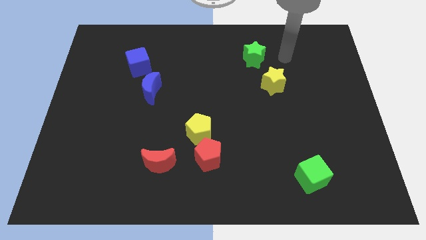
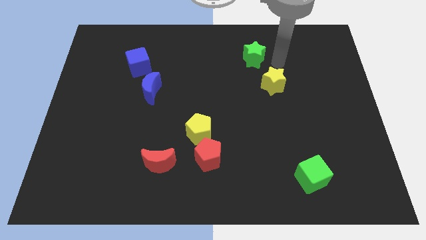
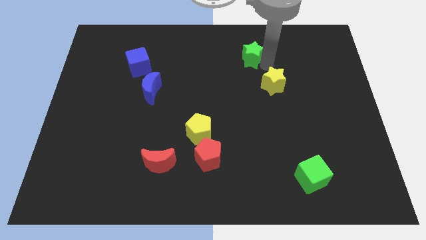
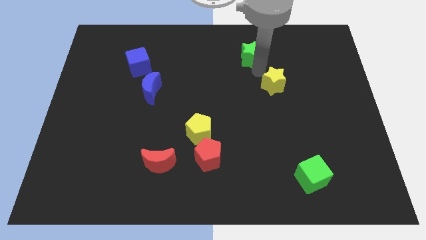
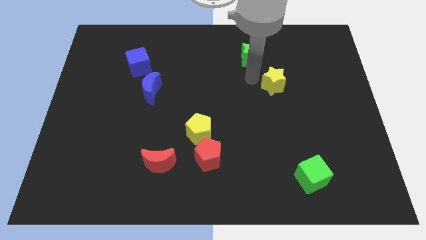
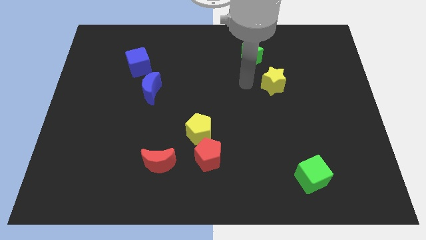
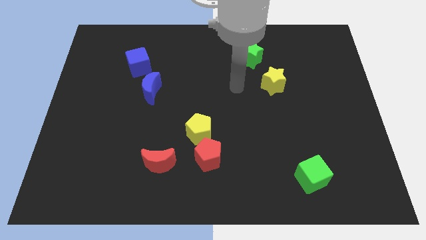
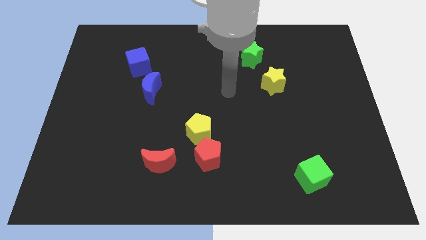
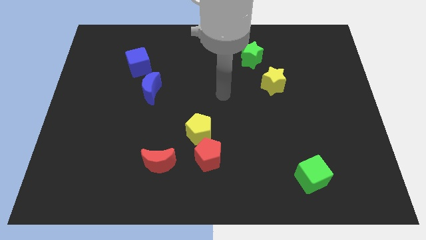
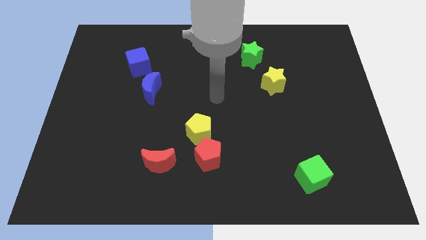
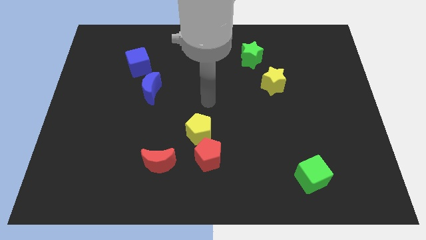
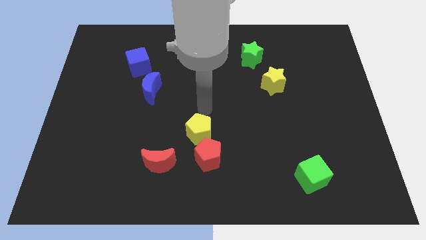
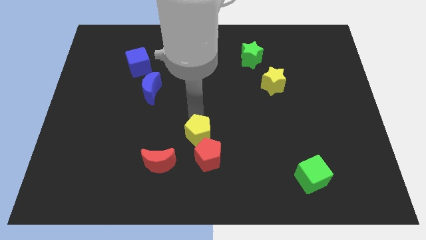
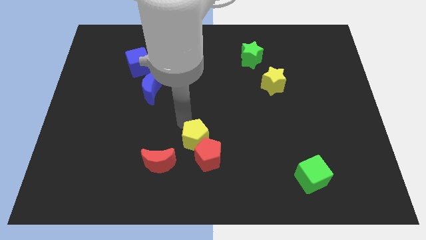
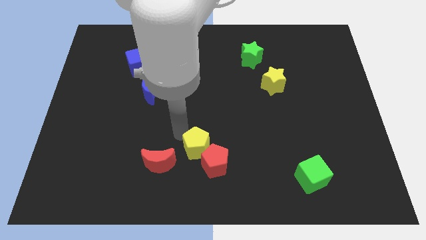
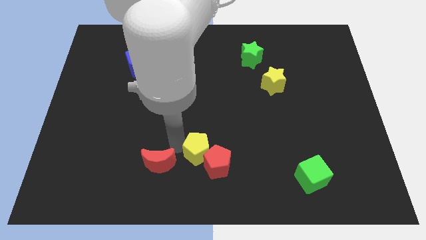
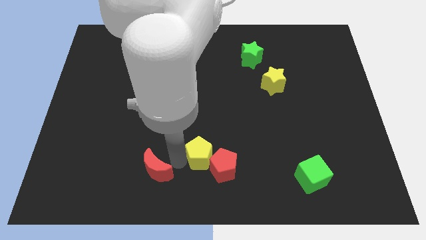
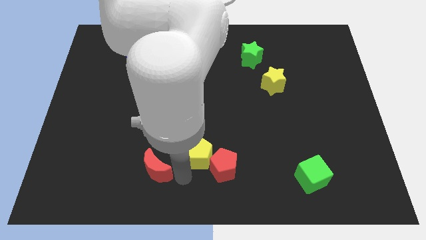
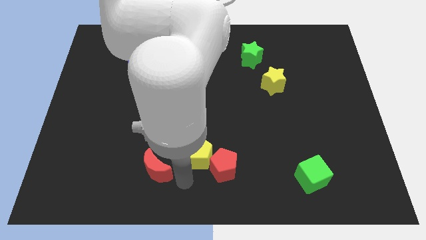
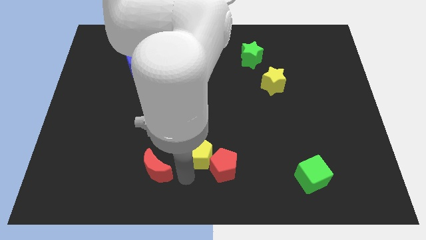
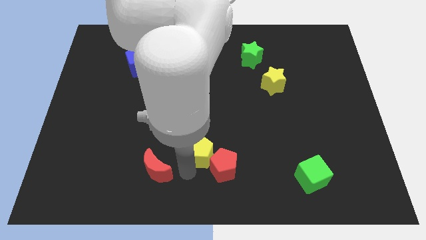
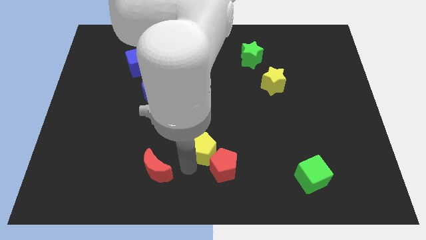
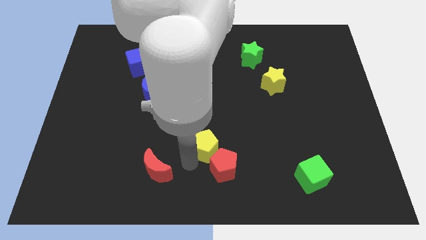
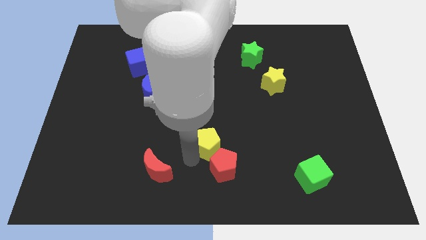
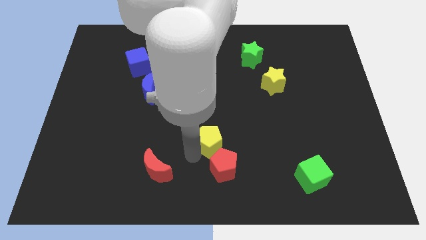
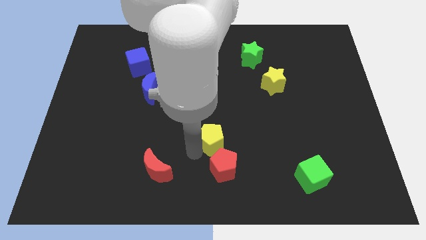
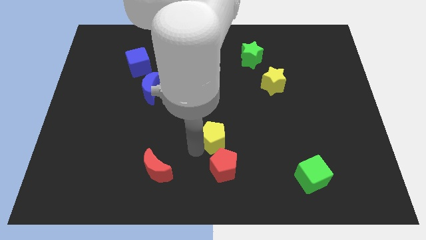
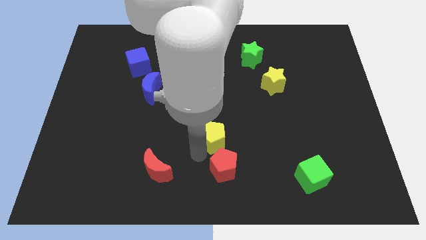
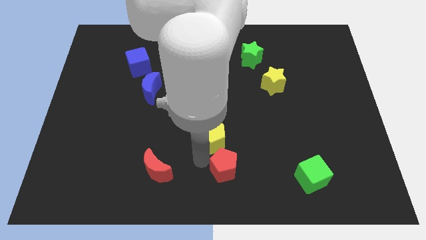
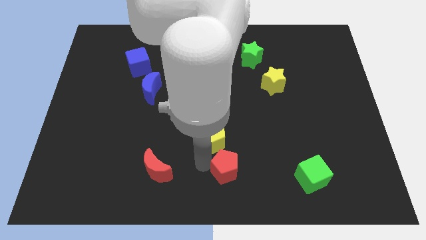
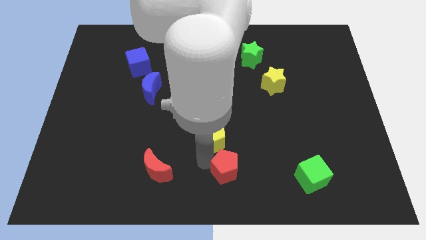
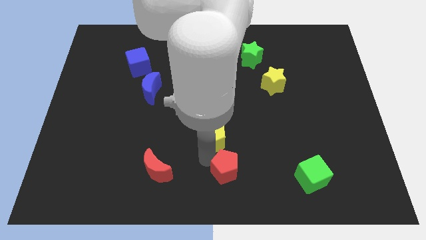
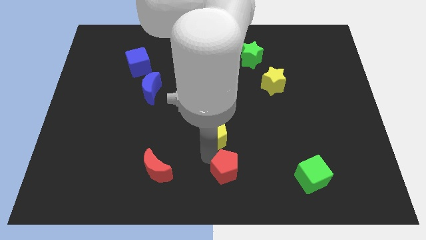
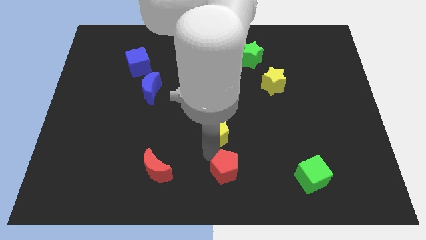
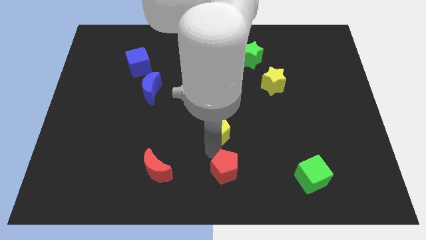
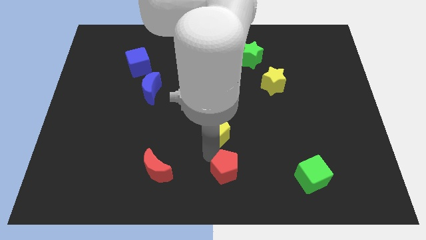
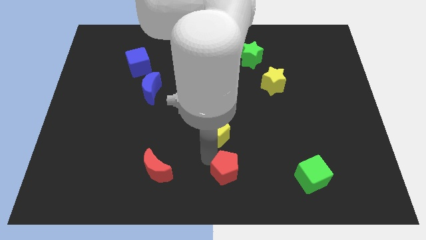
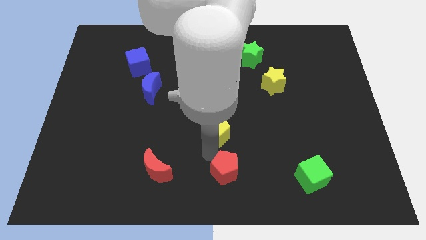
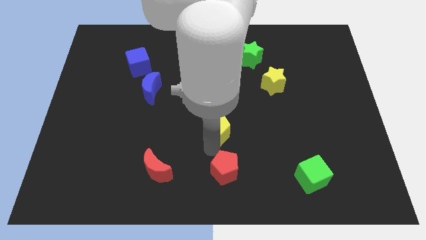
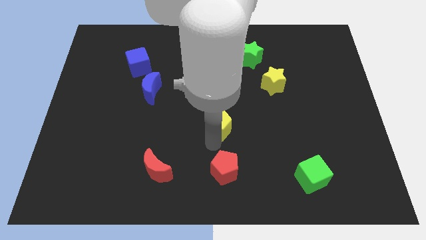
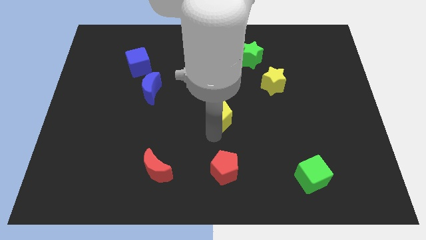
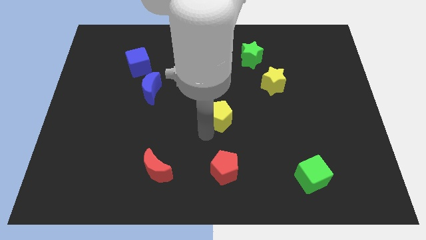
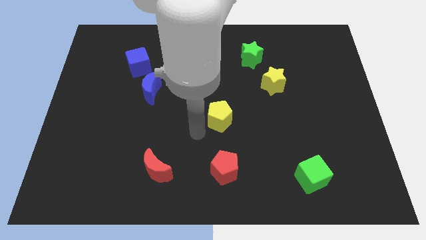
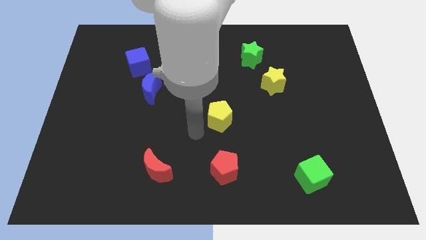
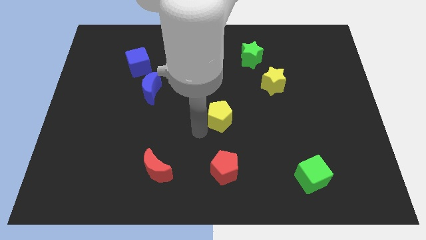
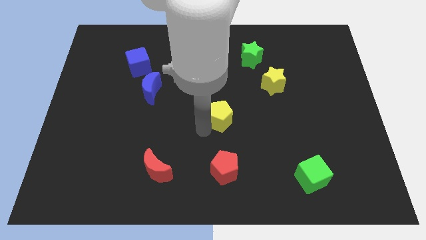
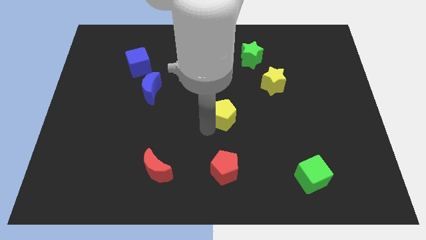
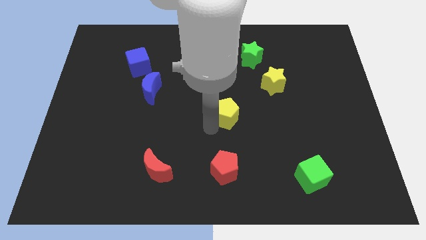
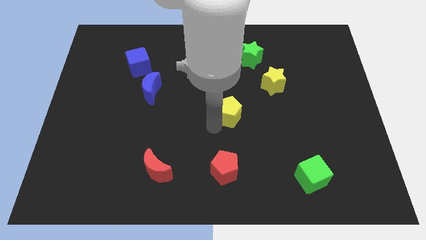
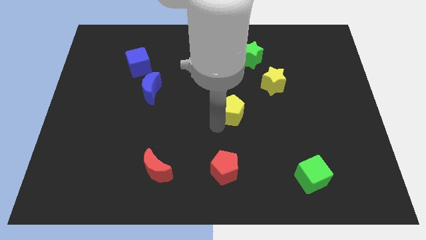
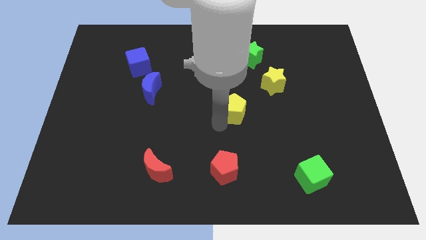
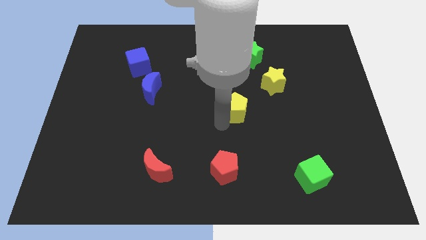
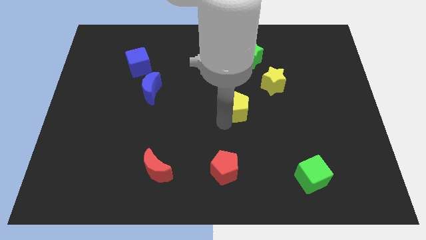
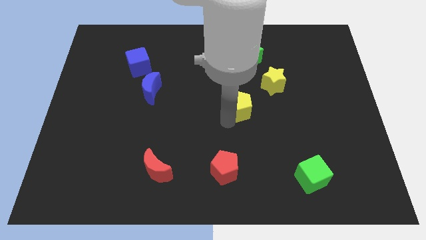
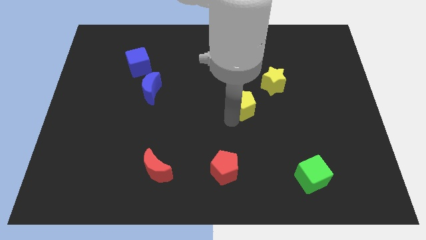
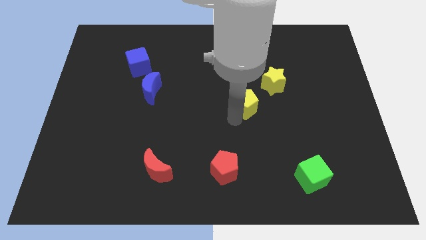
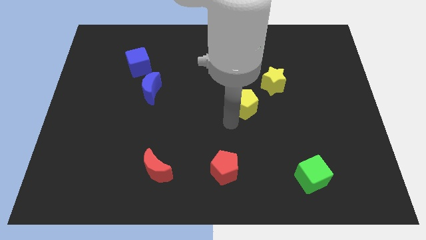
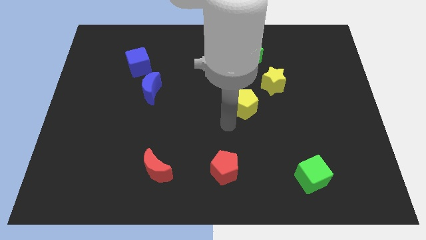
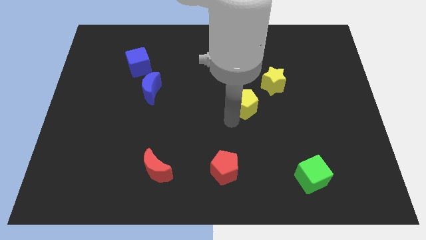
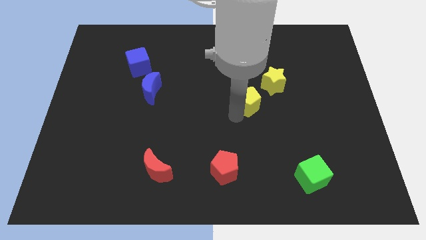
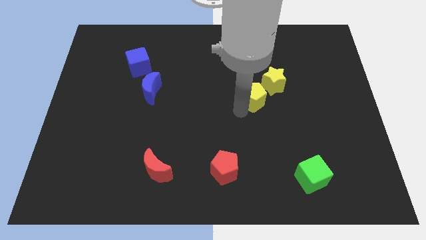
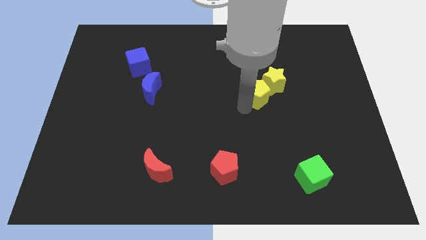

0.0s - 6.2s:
move the yellow pentagon close to the yellow star
